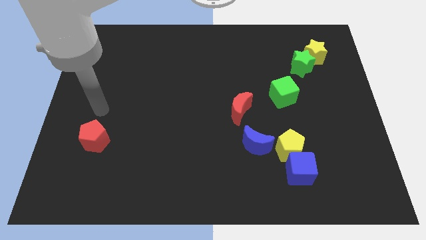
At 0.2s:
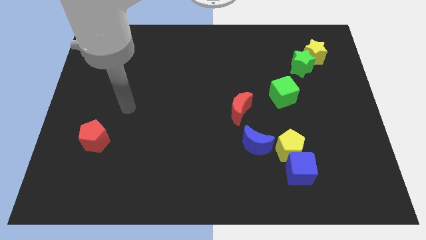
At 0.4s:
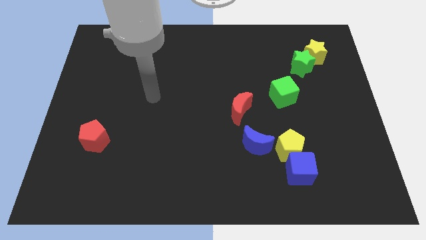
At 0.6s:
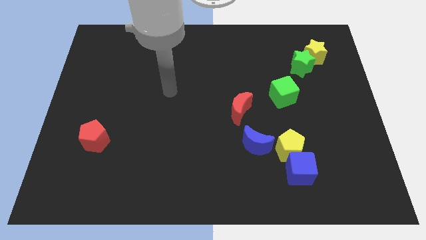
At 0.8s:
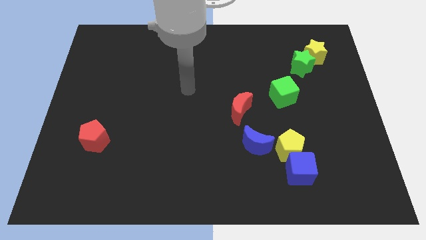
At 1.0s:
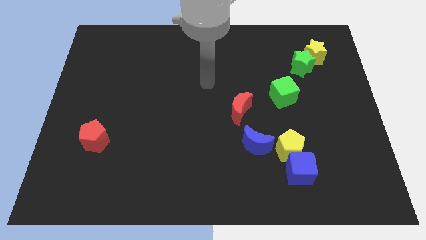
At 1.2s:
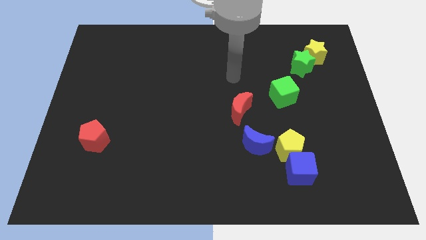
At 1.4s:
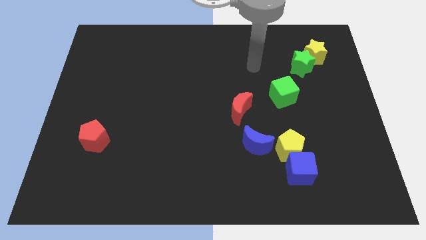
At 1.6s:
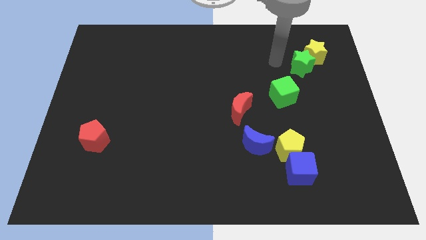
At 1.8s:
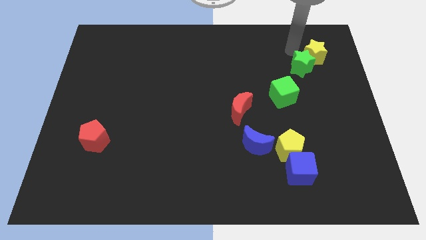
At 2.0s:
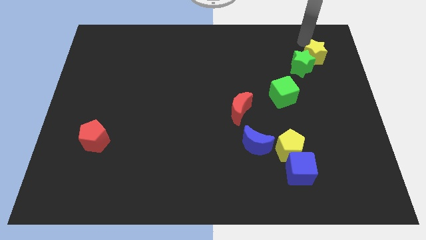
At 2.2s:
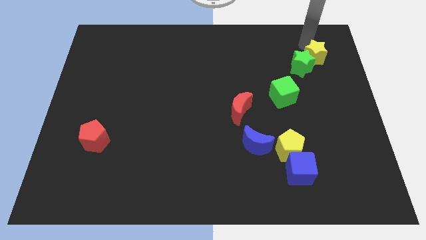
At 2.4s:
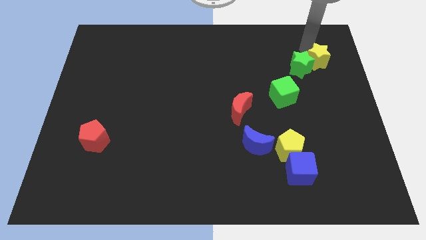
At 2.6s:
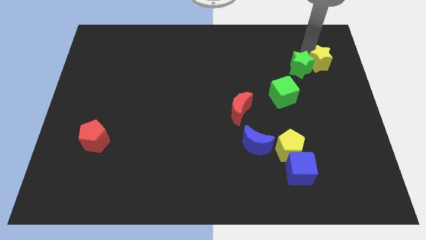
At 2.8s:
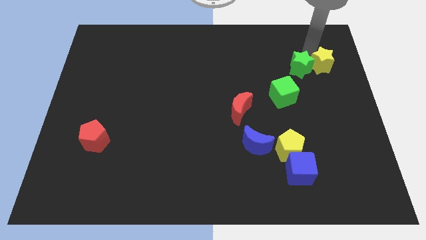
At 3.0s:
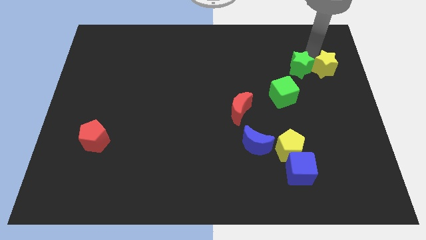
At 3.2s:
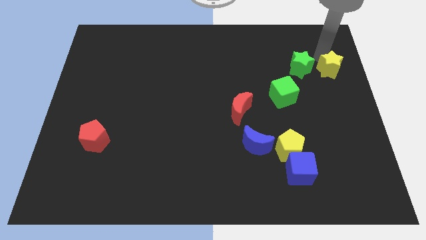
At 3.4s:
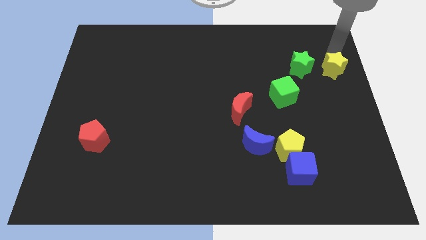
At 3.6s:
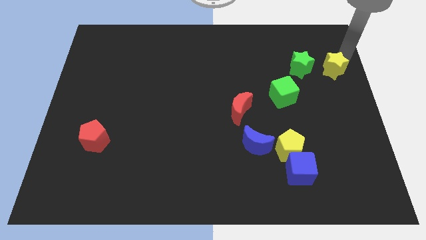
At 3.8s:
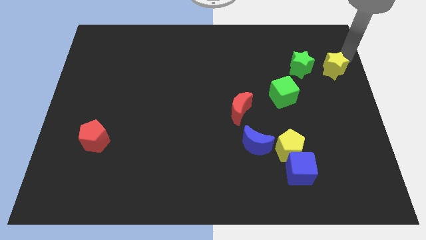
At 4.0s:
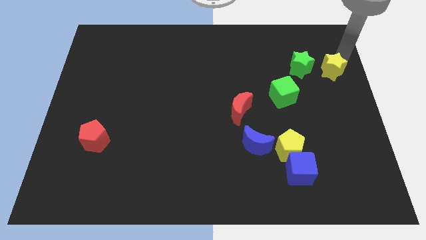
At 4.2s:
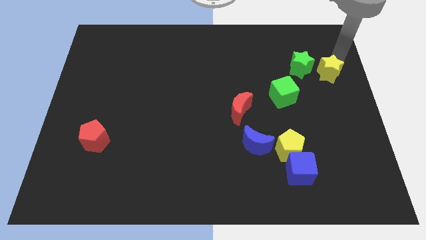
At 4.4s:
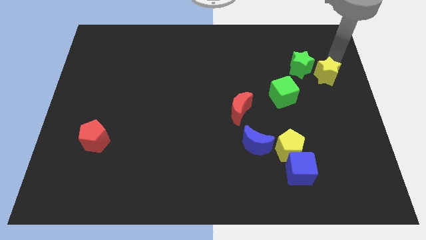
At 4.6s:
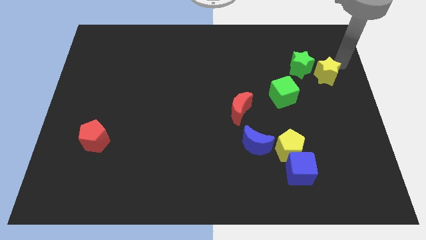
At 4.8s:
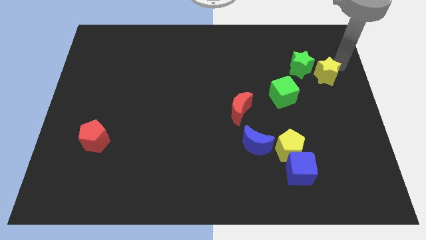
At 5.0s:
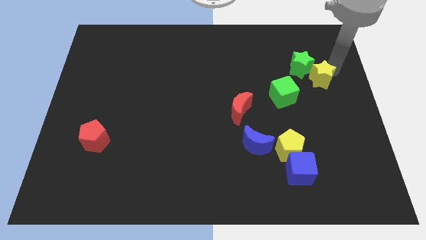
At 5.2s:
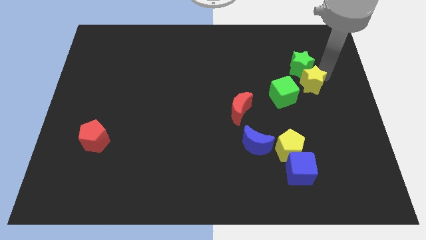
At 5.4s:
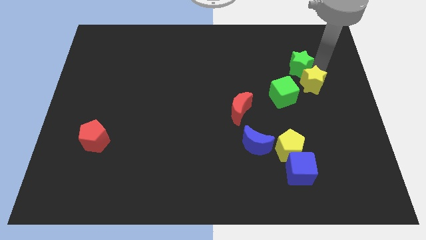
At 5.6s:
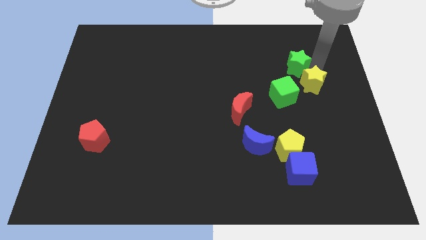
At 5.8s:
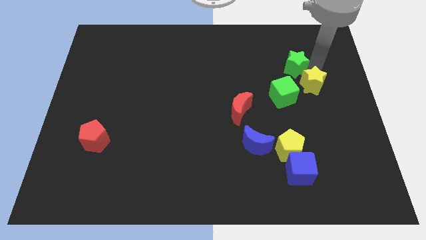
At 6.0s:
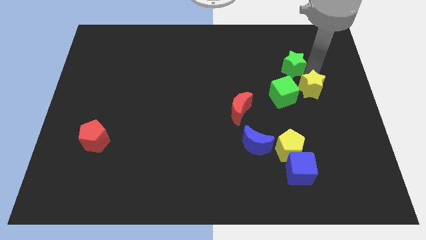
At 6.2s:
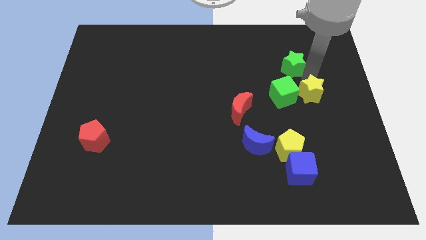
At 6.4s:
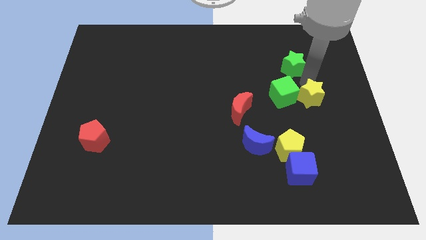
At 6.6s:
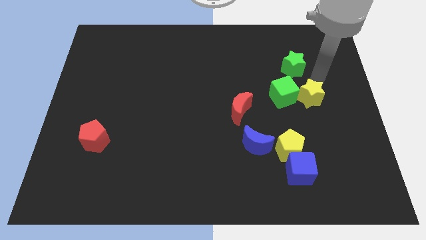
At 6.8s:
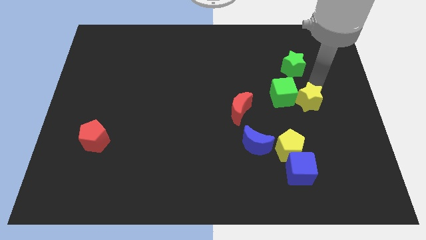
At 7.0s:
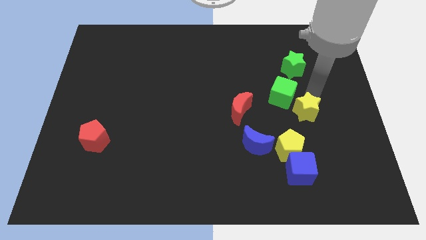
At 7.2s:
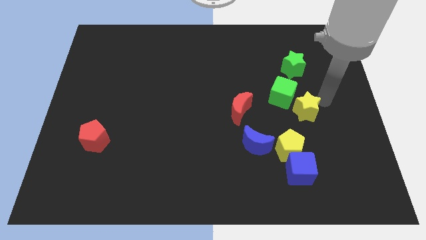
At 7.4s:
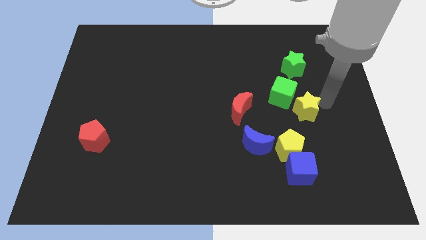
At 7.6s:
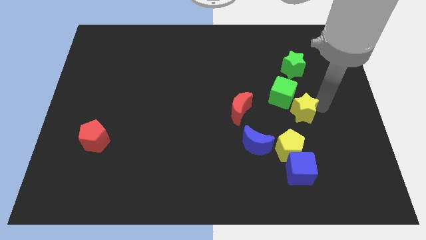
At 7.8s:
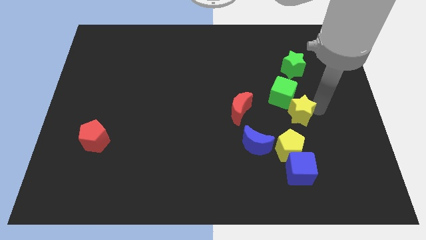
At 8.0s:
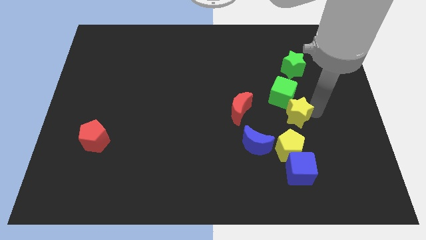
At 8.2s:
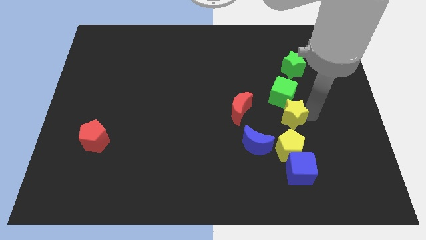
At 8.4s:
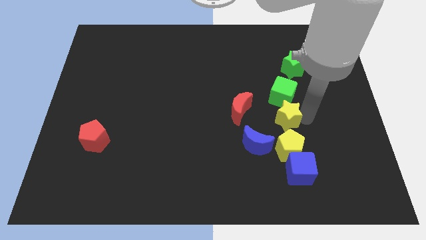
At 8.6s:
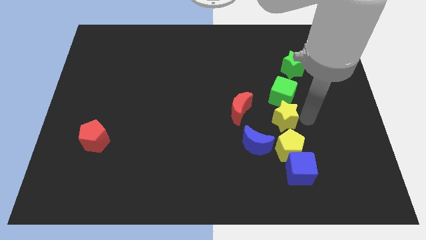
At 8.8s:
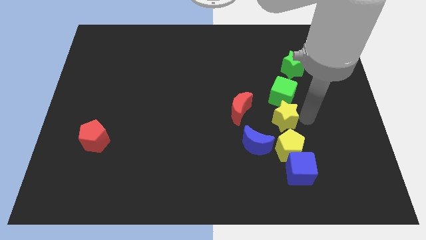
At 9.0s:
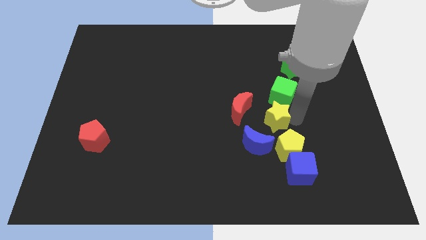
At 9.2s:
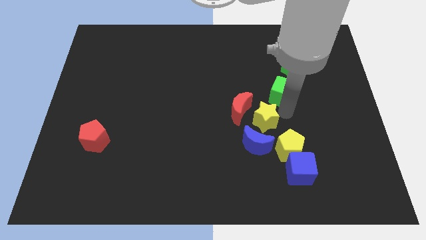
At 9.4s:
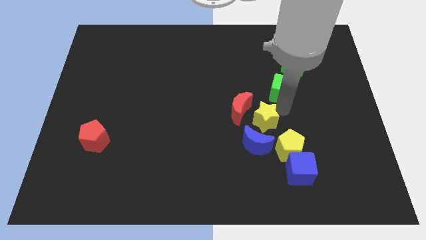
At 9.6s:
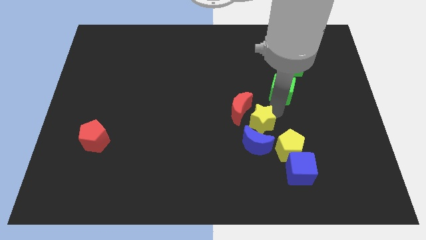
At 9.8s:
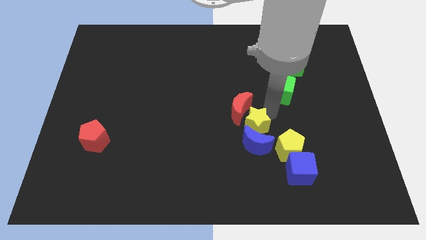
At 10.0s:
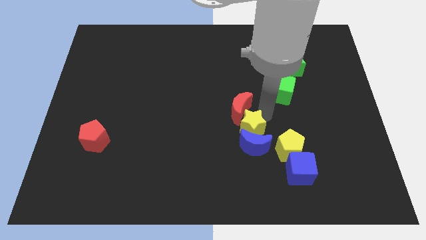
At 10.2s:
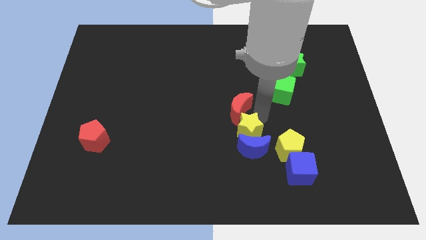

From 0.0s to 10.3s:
push the yellow star to the left side of the yellow pentagon

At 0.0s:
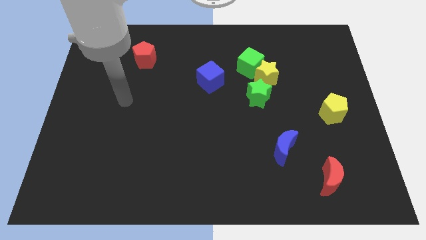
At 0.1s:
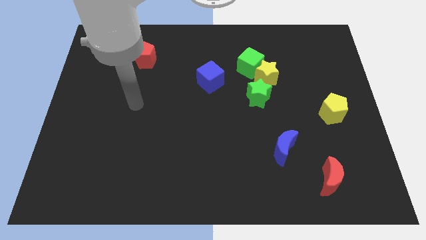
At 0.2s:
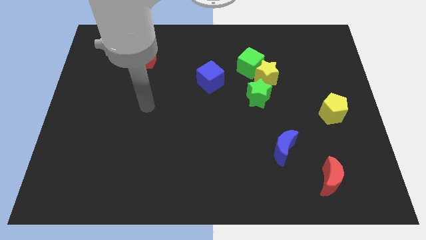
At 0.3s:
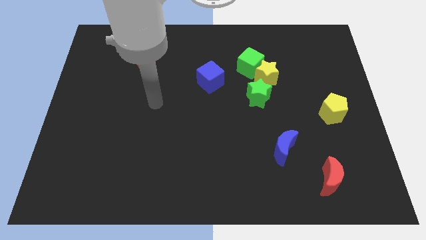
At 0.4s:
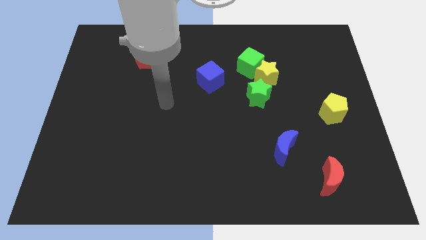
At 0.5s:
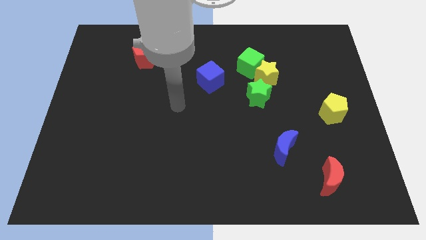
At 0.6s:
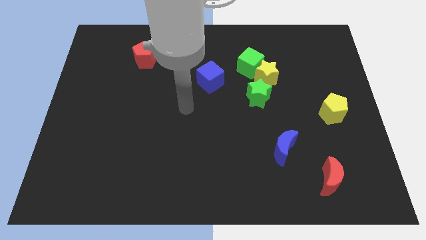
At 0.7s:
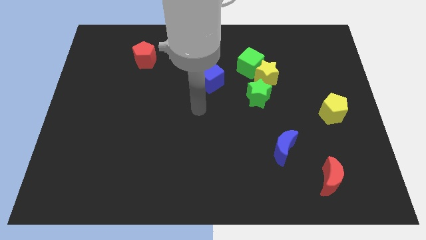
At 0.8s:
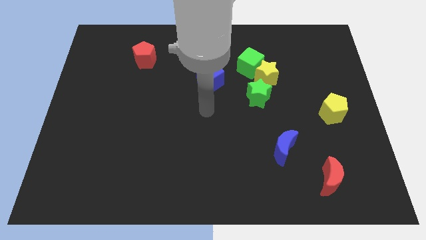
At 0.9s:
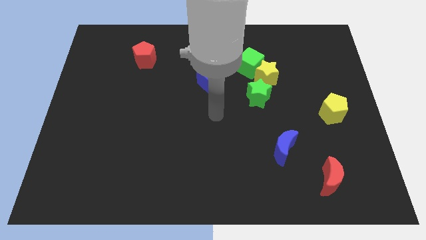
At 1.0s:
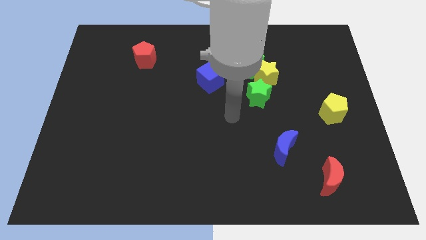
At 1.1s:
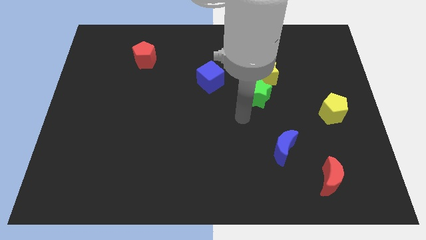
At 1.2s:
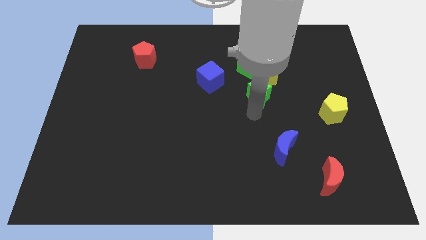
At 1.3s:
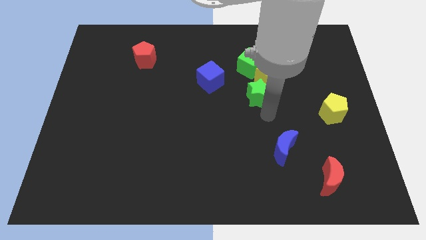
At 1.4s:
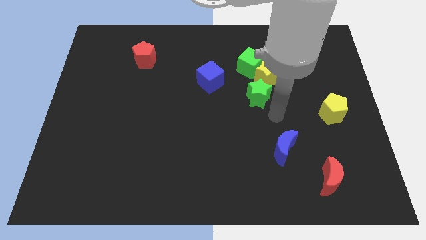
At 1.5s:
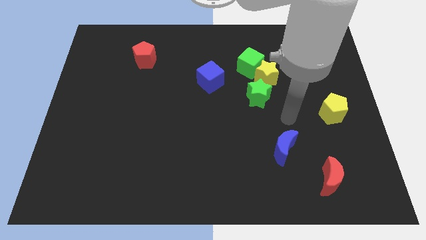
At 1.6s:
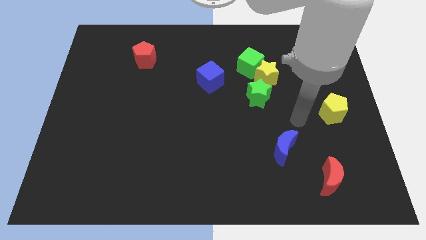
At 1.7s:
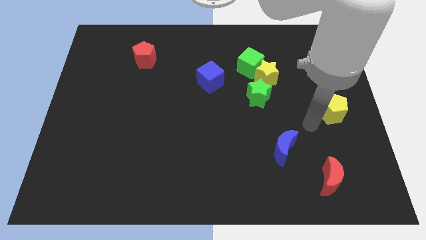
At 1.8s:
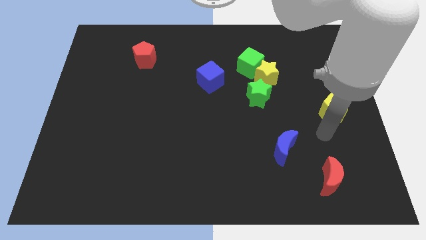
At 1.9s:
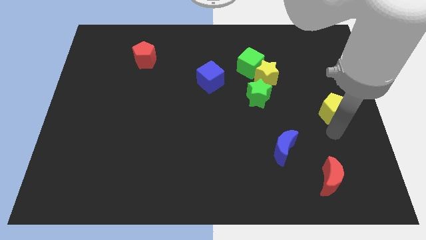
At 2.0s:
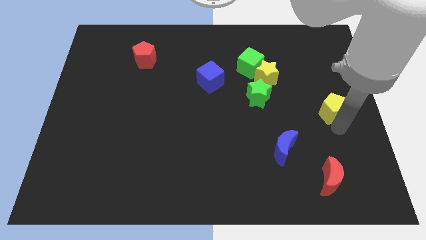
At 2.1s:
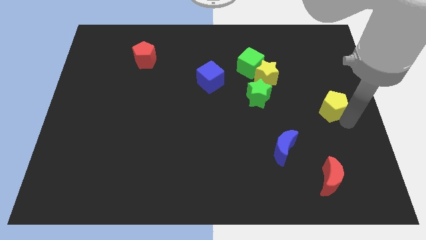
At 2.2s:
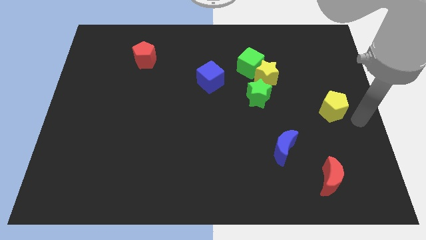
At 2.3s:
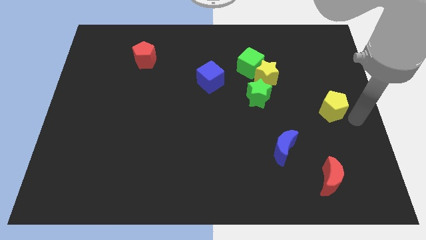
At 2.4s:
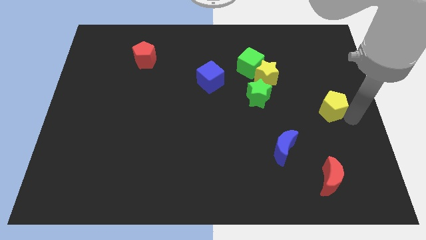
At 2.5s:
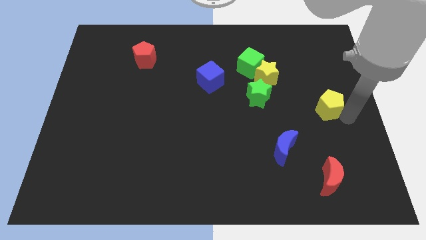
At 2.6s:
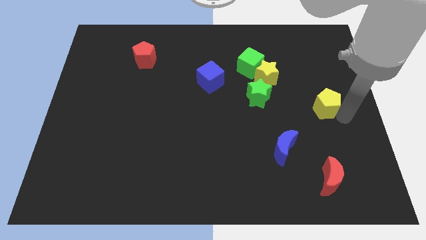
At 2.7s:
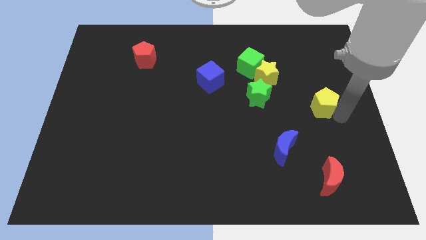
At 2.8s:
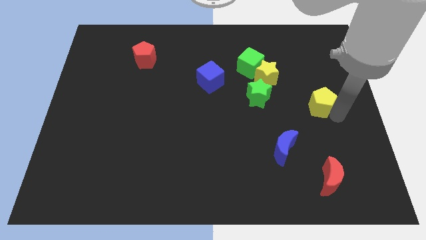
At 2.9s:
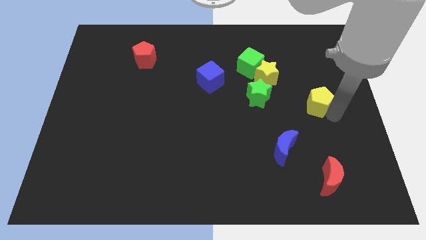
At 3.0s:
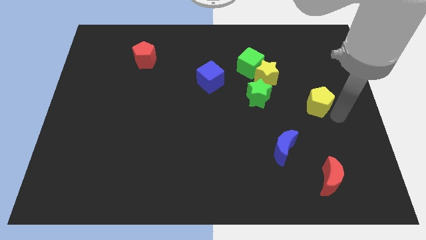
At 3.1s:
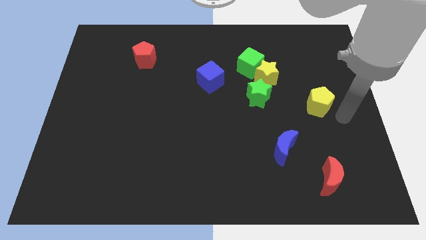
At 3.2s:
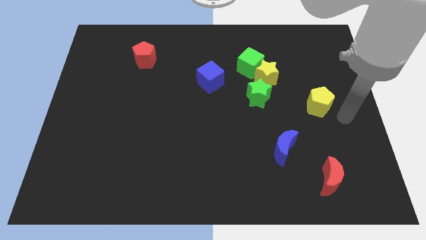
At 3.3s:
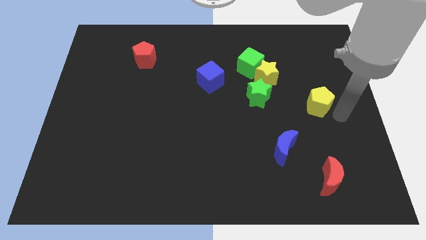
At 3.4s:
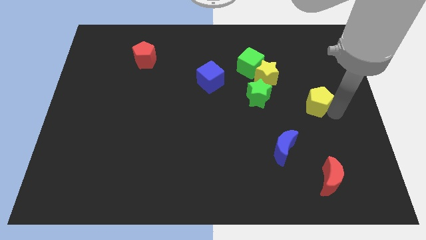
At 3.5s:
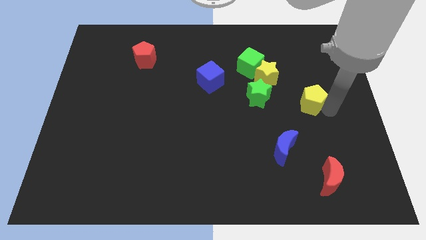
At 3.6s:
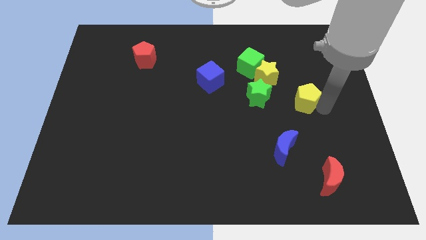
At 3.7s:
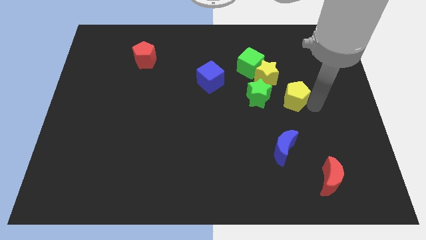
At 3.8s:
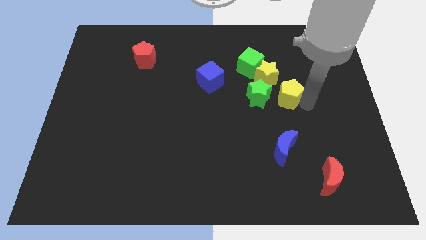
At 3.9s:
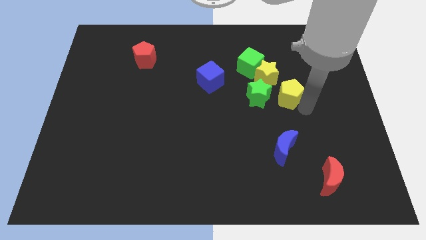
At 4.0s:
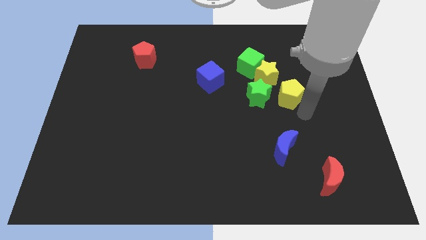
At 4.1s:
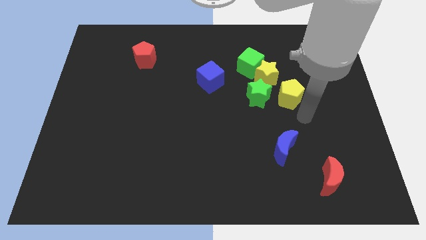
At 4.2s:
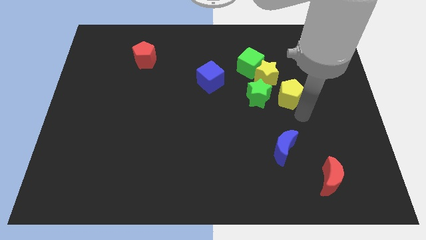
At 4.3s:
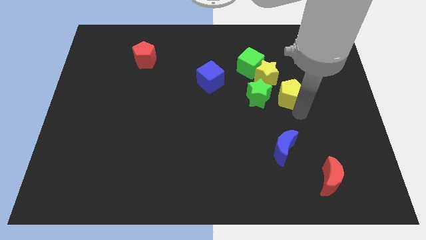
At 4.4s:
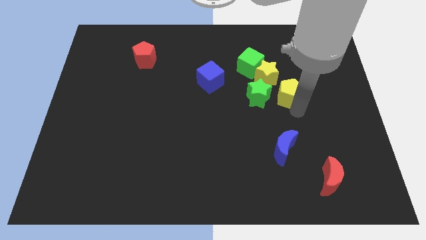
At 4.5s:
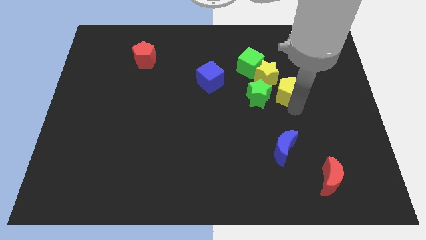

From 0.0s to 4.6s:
move the yellow pentagon diagonally up and to the right of the green star
